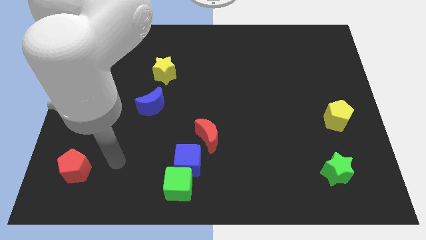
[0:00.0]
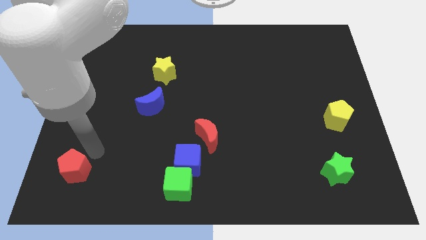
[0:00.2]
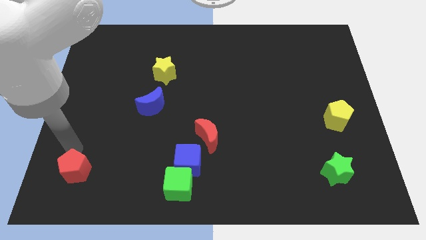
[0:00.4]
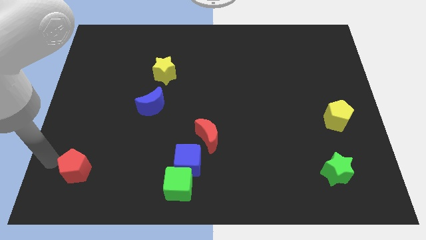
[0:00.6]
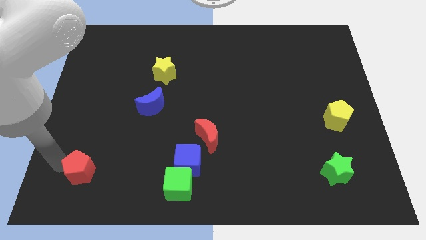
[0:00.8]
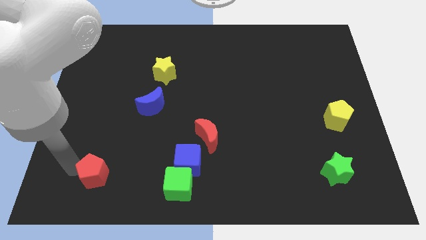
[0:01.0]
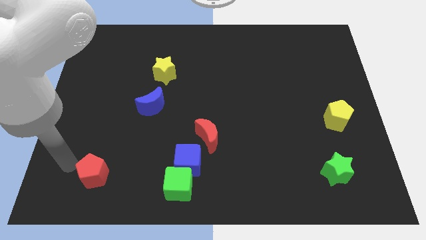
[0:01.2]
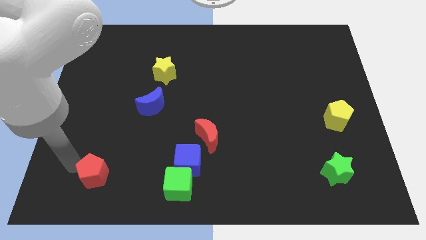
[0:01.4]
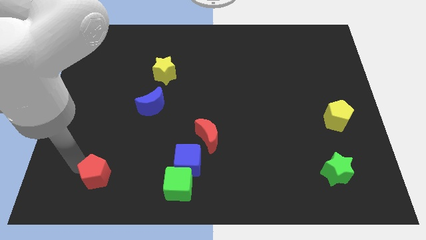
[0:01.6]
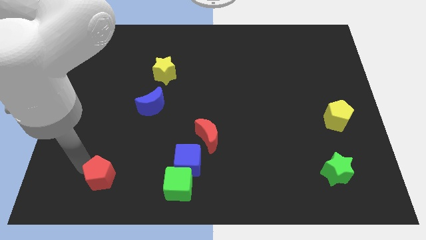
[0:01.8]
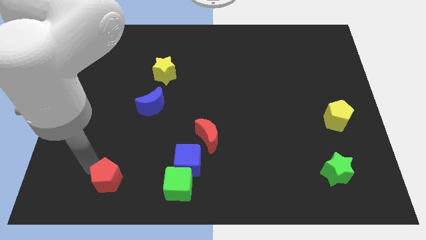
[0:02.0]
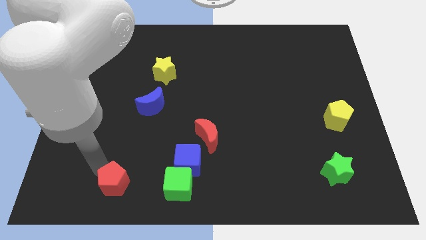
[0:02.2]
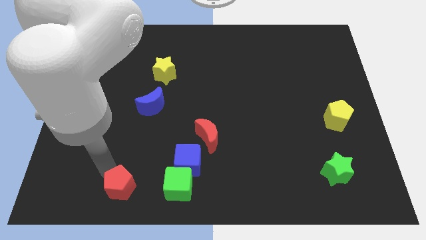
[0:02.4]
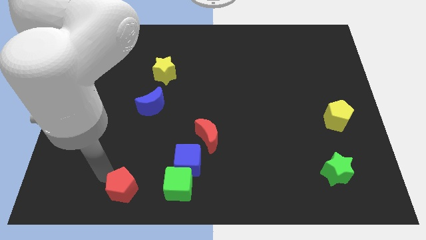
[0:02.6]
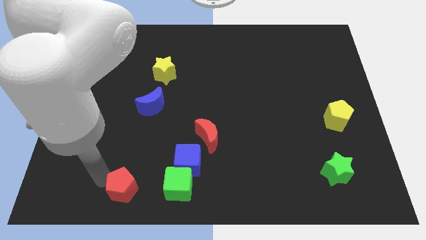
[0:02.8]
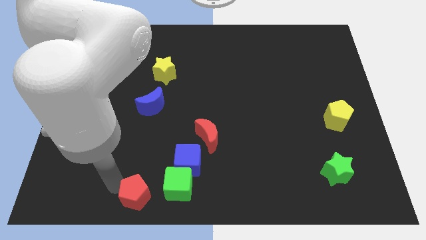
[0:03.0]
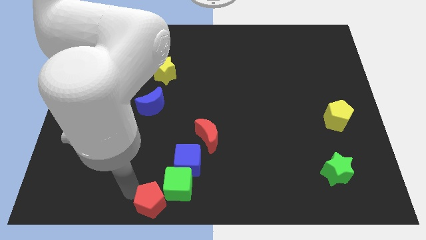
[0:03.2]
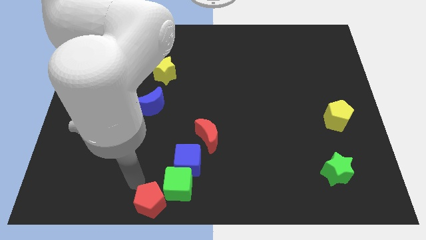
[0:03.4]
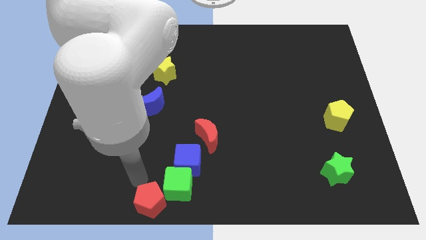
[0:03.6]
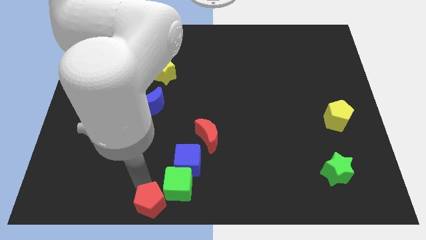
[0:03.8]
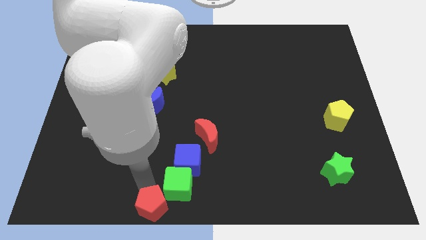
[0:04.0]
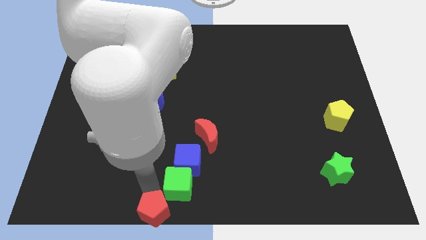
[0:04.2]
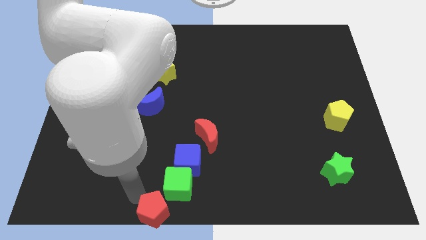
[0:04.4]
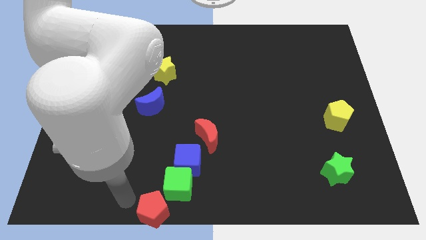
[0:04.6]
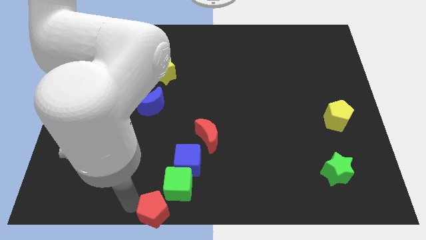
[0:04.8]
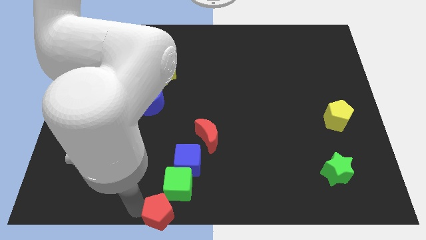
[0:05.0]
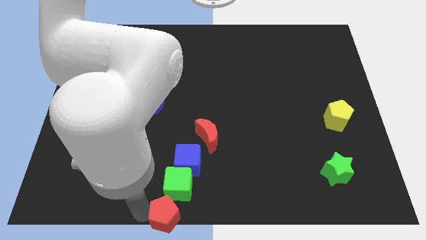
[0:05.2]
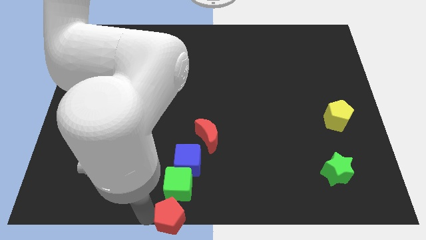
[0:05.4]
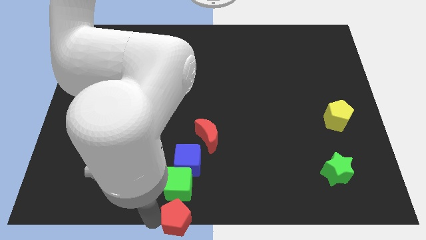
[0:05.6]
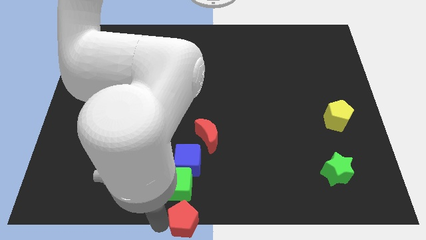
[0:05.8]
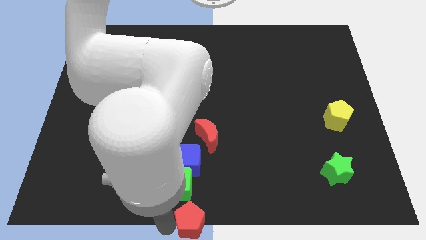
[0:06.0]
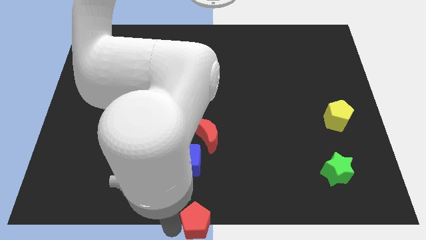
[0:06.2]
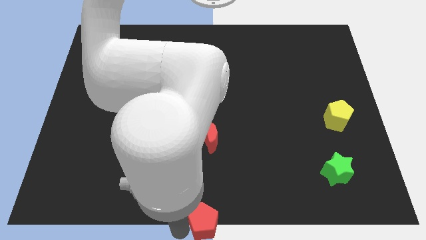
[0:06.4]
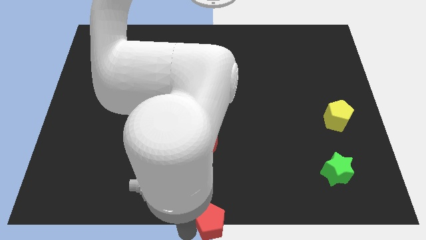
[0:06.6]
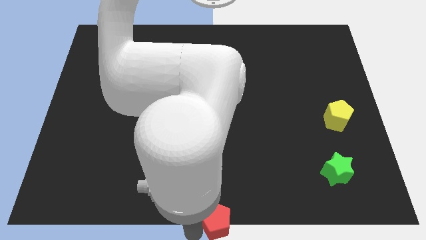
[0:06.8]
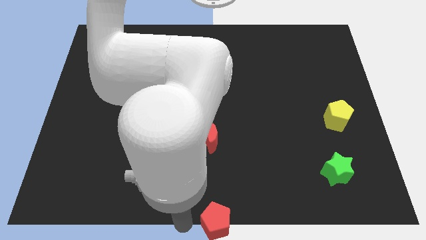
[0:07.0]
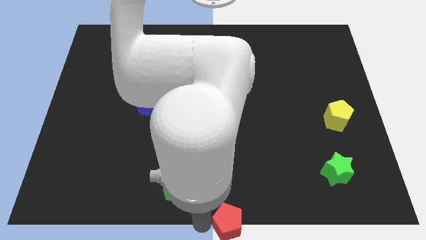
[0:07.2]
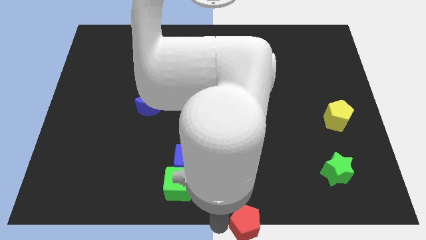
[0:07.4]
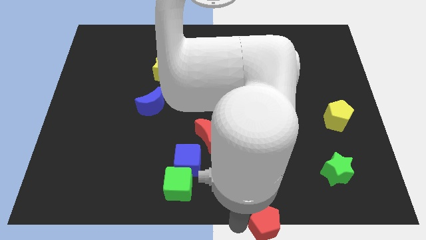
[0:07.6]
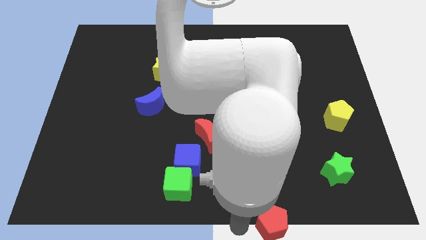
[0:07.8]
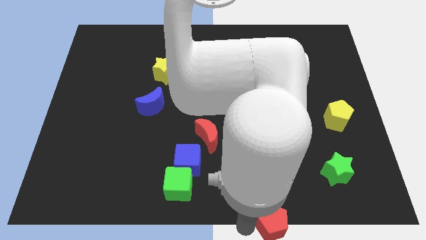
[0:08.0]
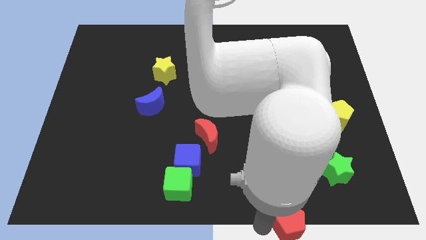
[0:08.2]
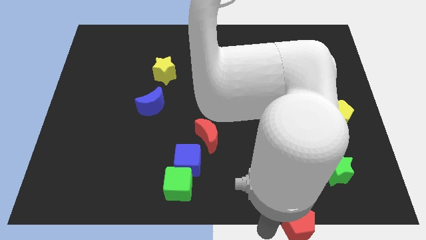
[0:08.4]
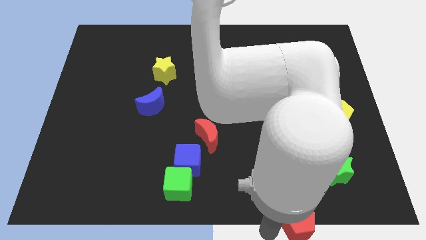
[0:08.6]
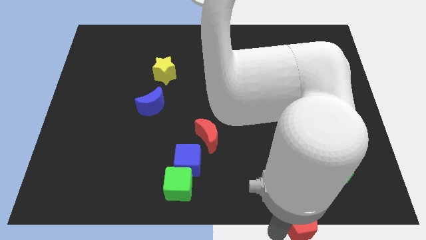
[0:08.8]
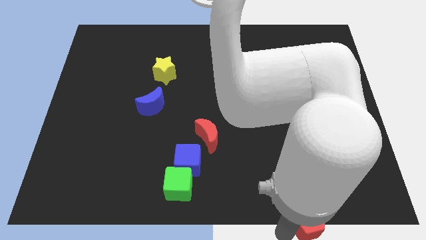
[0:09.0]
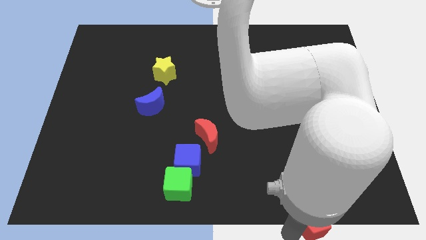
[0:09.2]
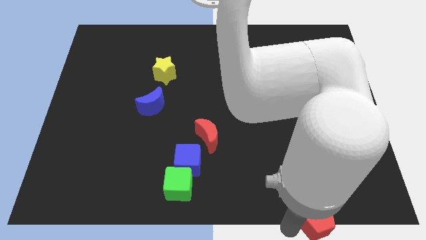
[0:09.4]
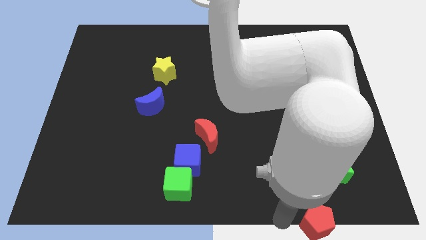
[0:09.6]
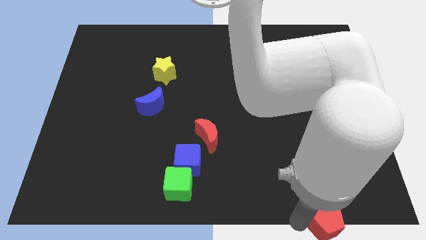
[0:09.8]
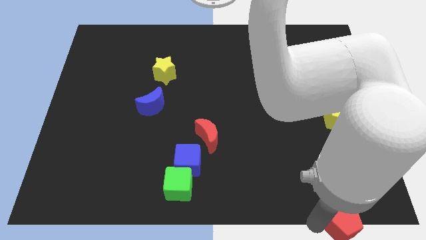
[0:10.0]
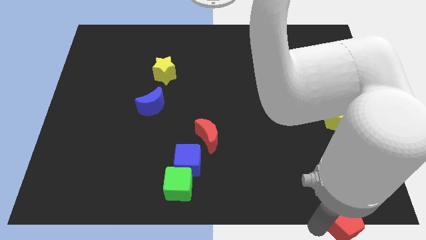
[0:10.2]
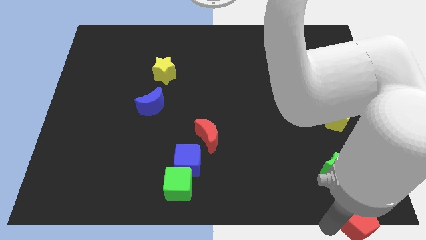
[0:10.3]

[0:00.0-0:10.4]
push the red pentagon to the lower right corner

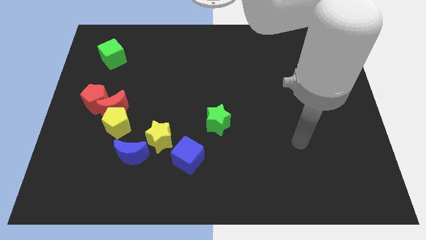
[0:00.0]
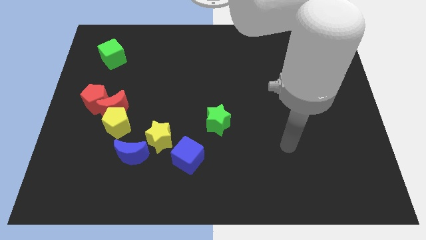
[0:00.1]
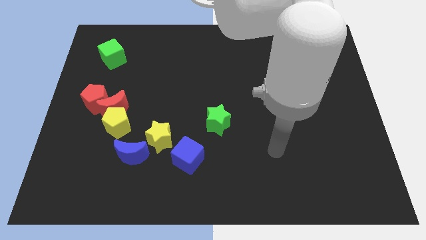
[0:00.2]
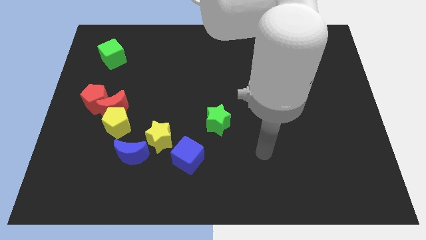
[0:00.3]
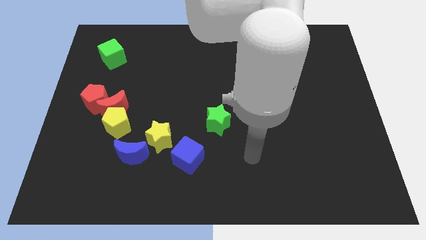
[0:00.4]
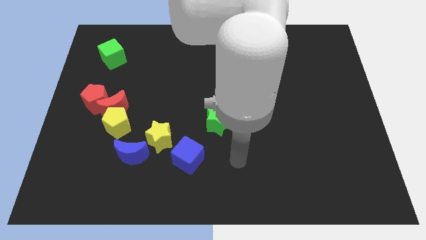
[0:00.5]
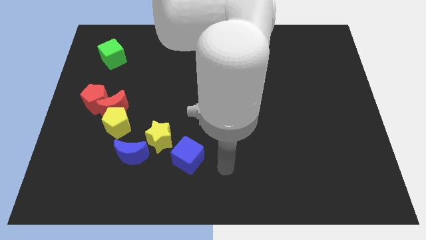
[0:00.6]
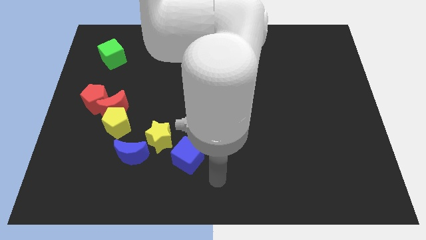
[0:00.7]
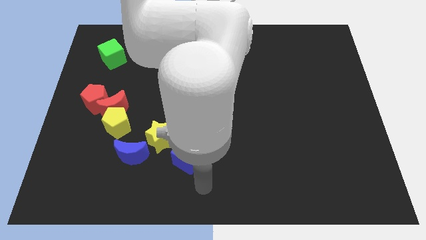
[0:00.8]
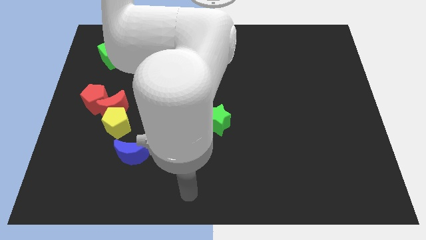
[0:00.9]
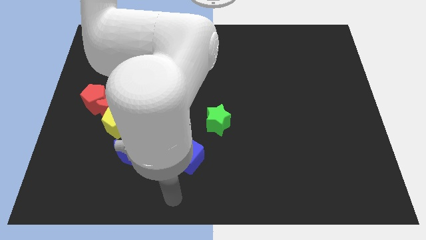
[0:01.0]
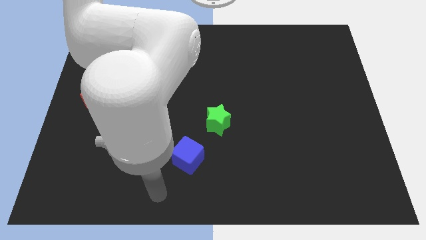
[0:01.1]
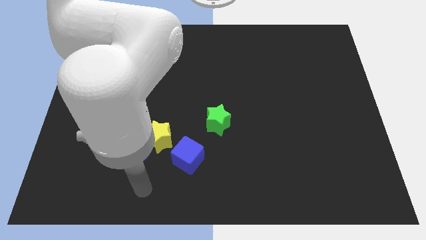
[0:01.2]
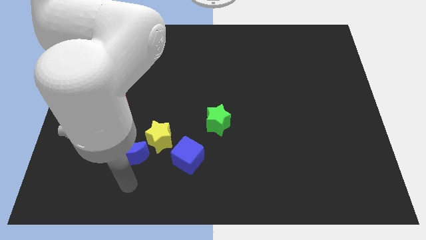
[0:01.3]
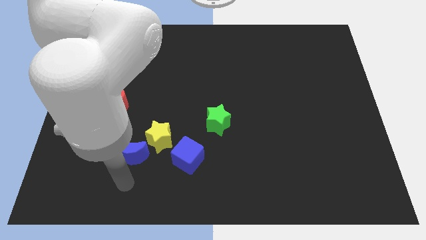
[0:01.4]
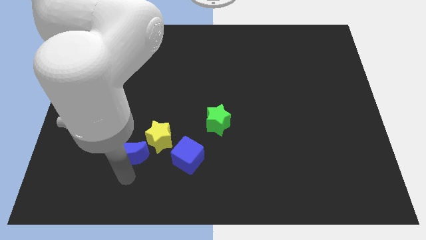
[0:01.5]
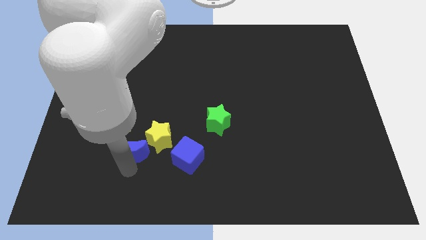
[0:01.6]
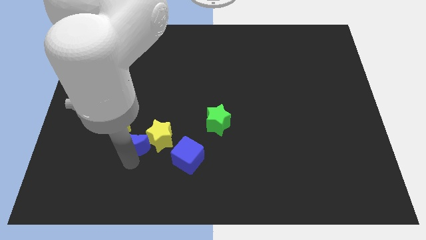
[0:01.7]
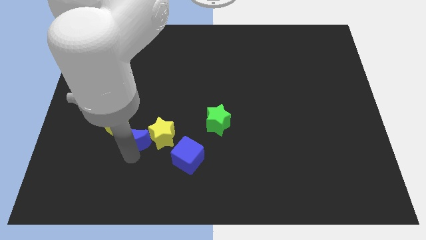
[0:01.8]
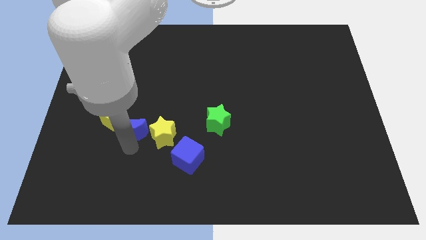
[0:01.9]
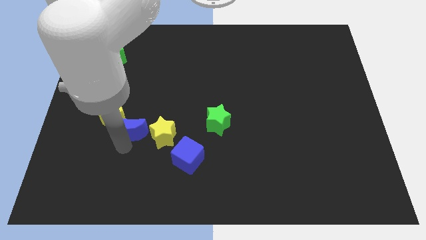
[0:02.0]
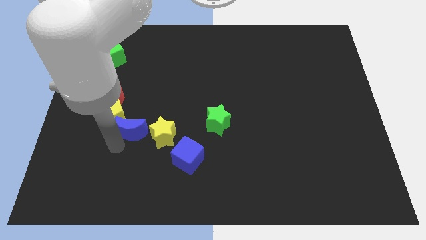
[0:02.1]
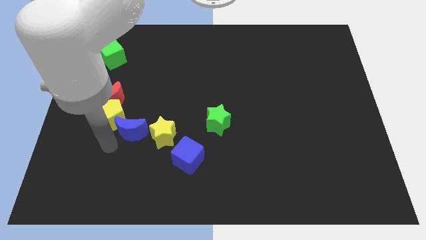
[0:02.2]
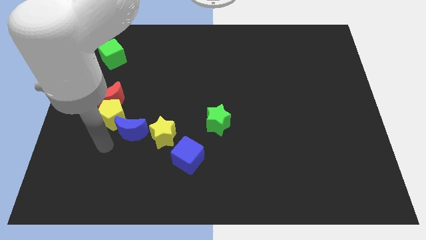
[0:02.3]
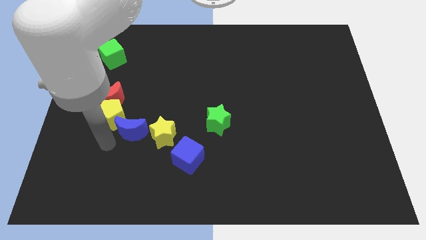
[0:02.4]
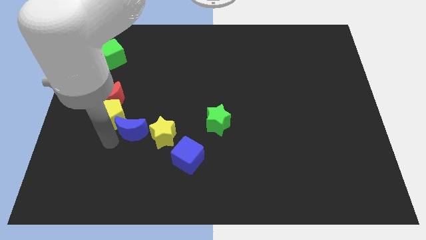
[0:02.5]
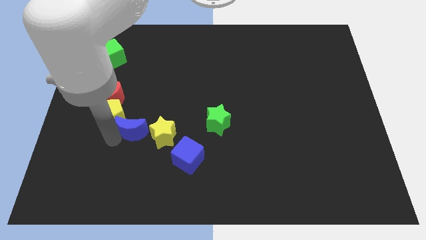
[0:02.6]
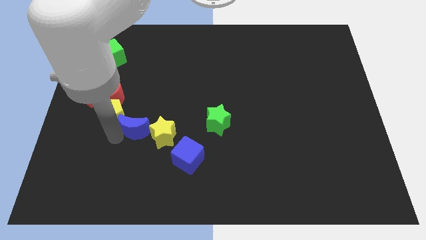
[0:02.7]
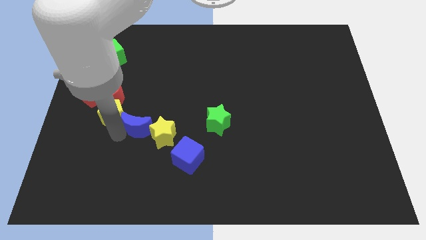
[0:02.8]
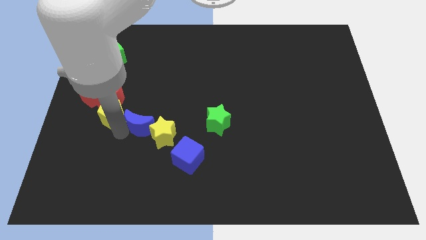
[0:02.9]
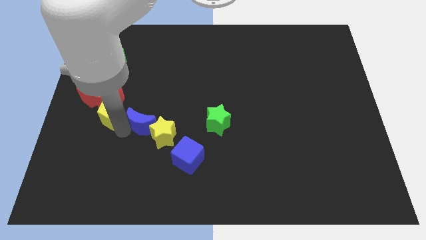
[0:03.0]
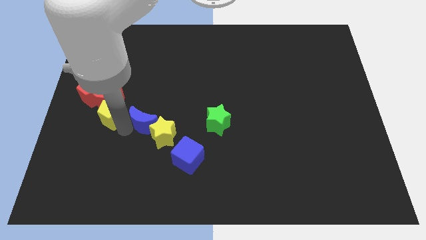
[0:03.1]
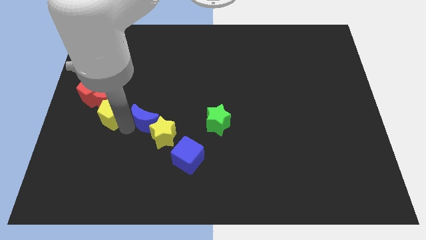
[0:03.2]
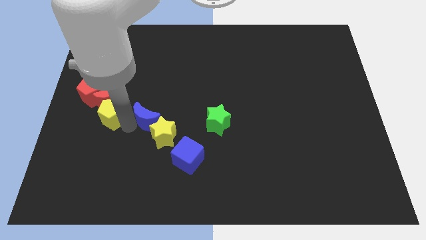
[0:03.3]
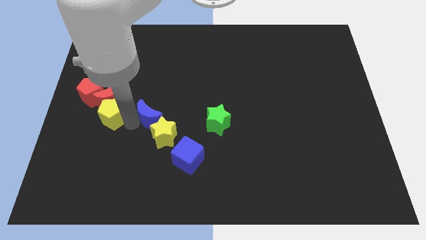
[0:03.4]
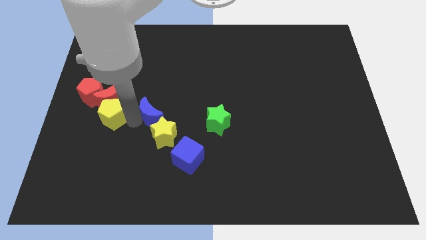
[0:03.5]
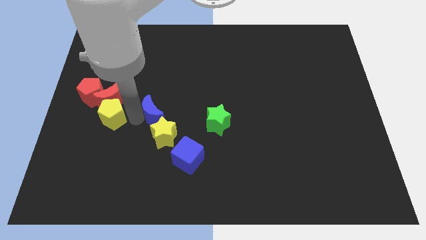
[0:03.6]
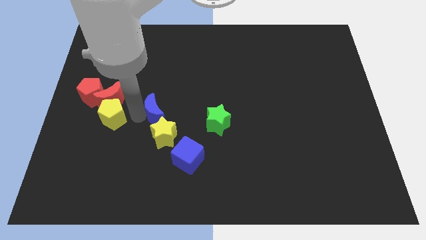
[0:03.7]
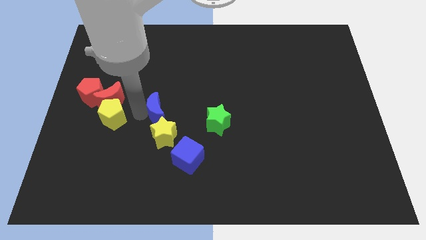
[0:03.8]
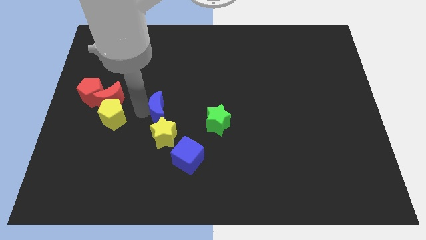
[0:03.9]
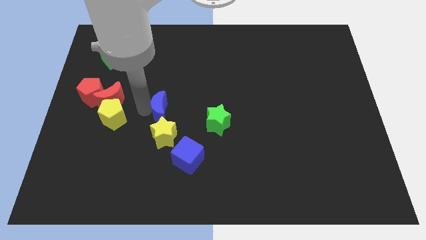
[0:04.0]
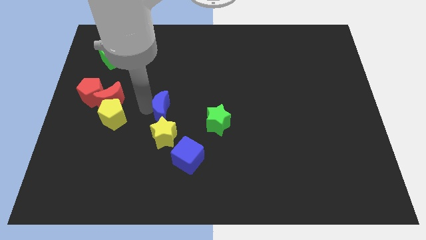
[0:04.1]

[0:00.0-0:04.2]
move the blue moon to the middle
